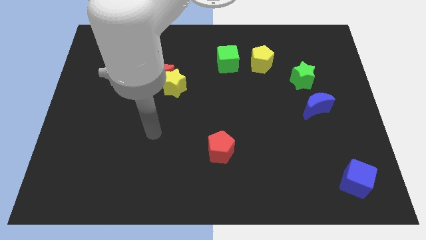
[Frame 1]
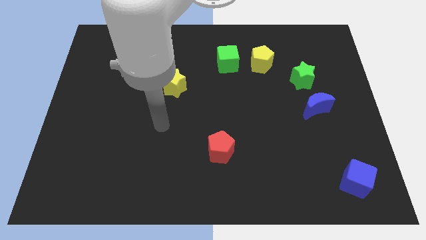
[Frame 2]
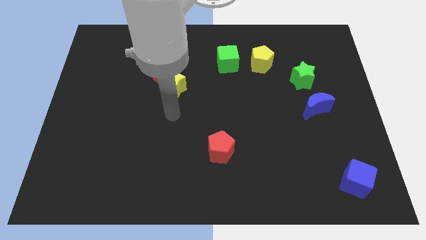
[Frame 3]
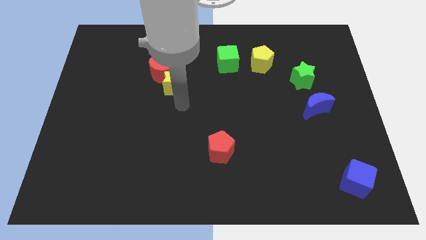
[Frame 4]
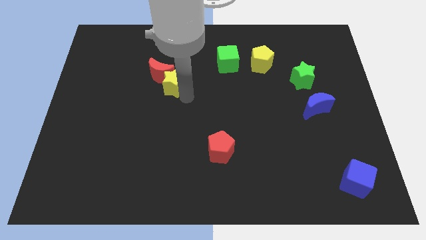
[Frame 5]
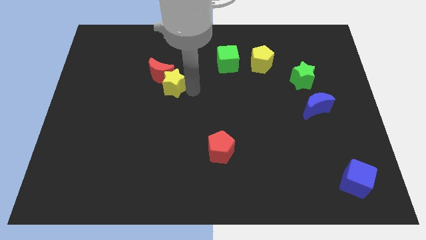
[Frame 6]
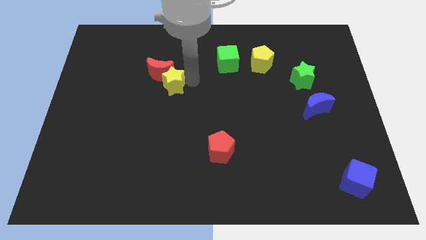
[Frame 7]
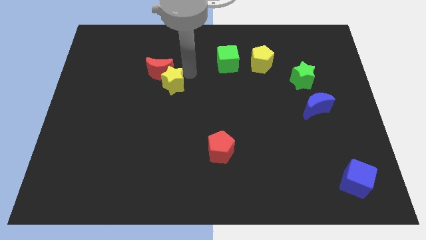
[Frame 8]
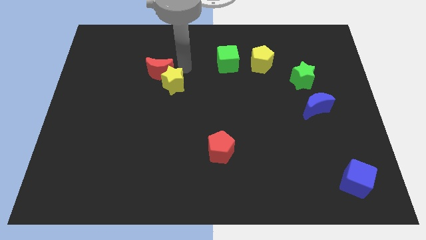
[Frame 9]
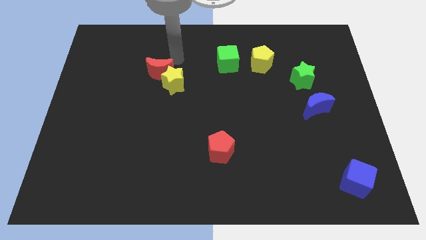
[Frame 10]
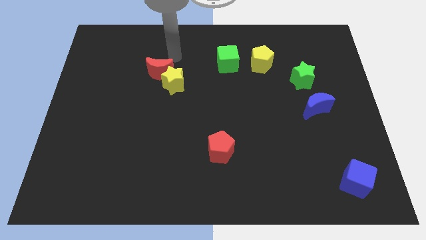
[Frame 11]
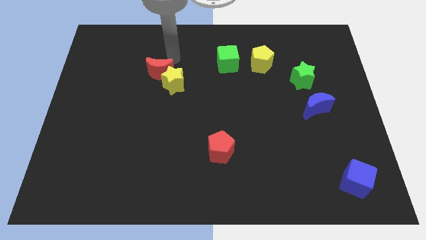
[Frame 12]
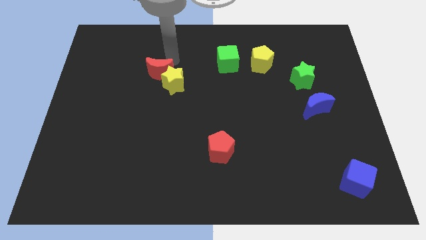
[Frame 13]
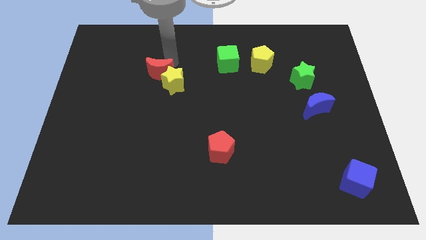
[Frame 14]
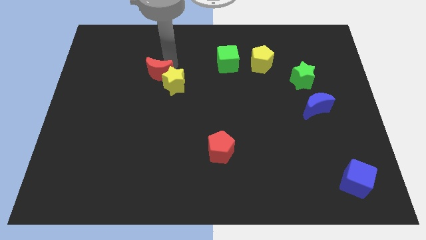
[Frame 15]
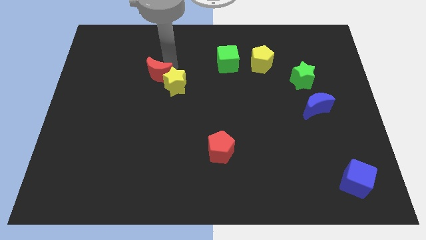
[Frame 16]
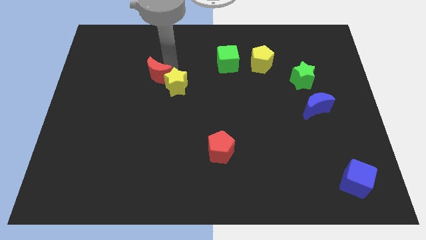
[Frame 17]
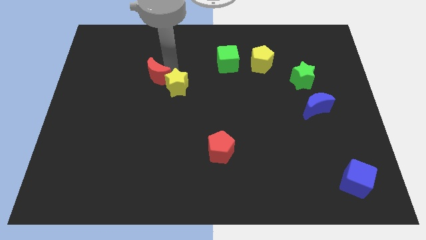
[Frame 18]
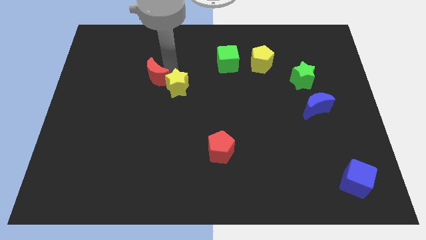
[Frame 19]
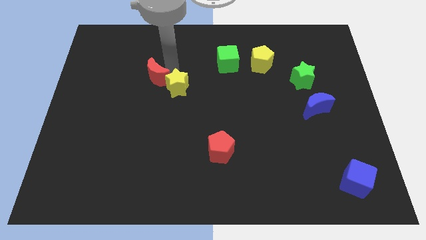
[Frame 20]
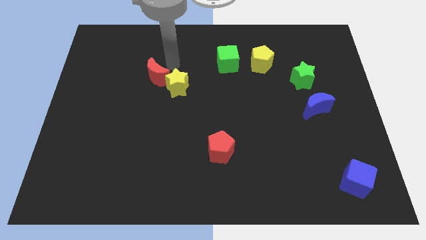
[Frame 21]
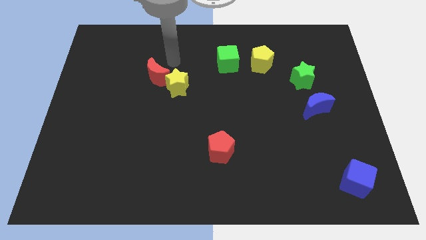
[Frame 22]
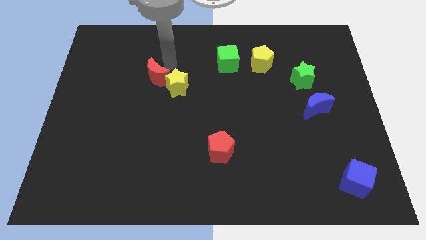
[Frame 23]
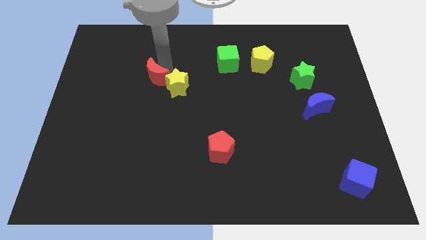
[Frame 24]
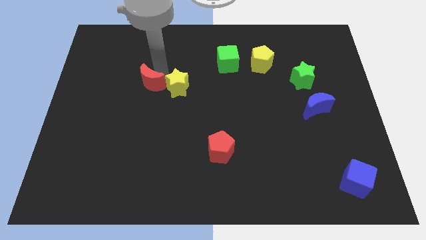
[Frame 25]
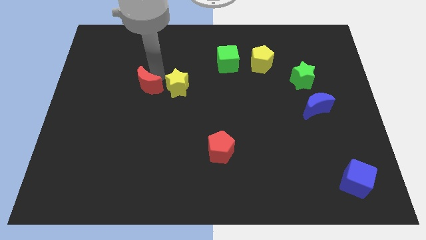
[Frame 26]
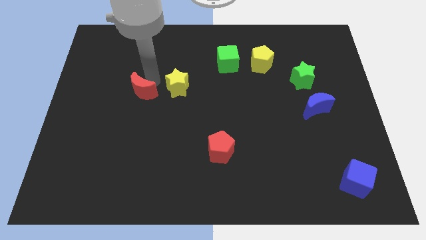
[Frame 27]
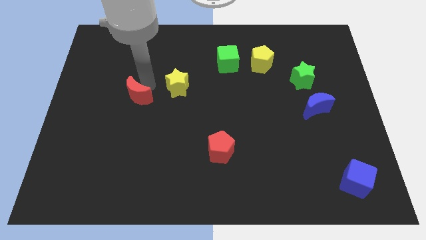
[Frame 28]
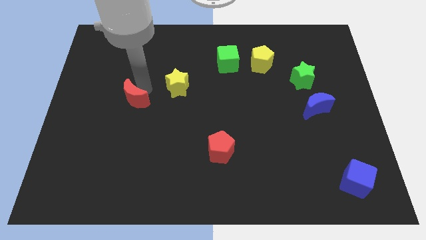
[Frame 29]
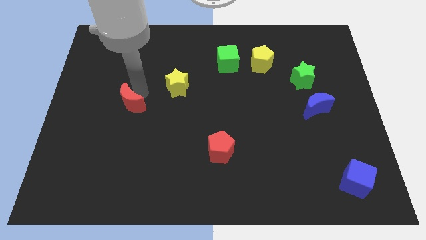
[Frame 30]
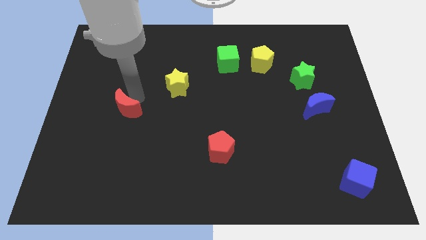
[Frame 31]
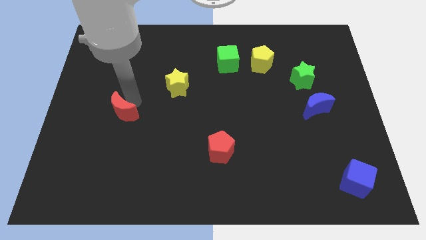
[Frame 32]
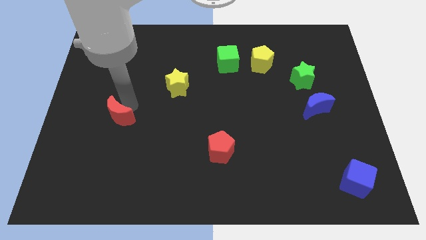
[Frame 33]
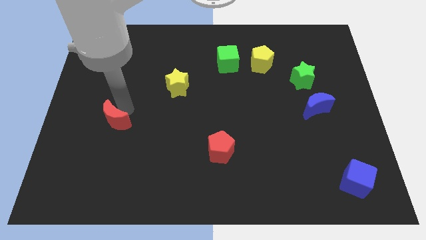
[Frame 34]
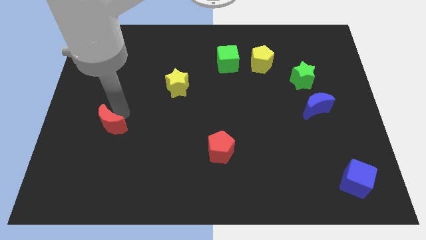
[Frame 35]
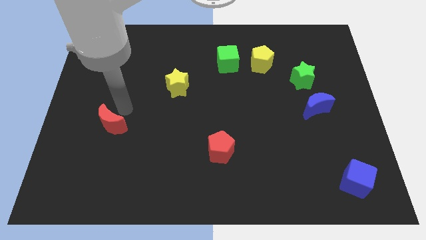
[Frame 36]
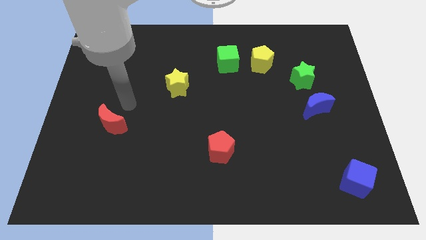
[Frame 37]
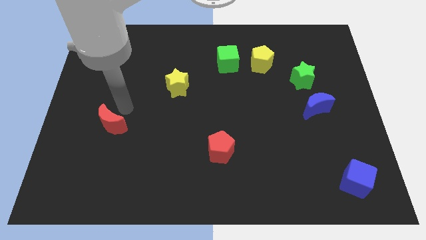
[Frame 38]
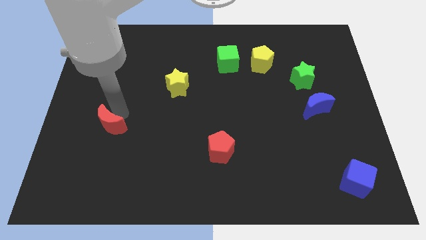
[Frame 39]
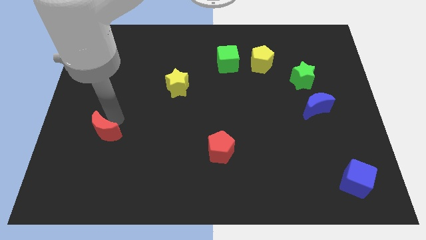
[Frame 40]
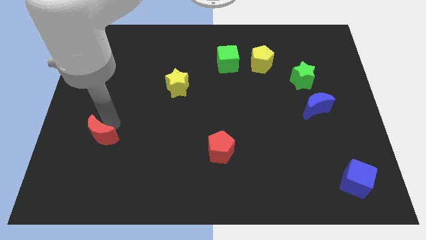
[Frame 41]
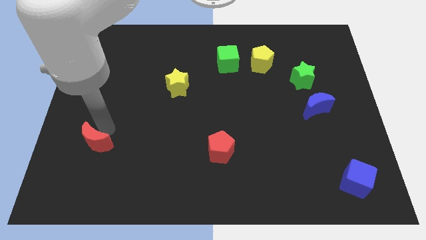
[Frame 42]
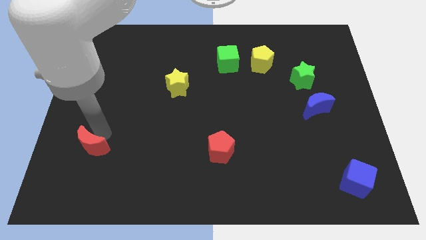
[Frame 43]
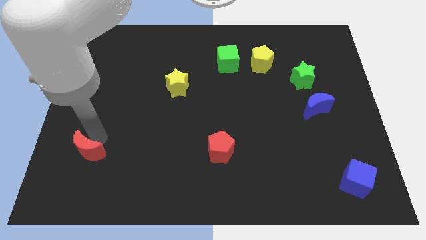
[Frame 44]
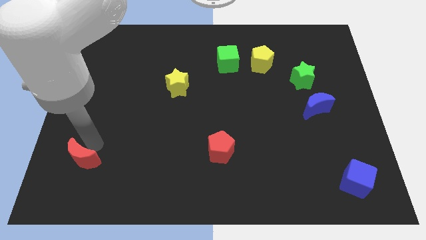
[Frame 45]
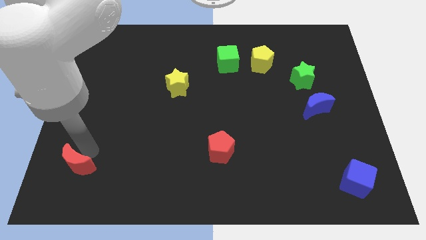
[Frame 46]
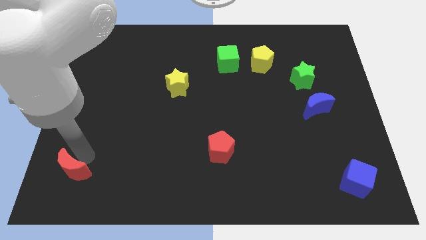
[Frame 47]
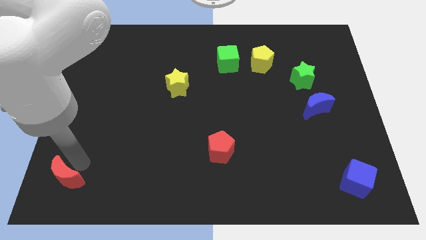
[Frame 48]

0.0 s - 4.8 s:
put the red moon to the bottom left

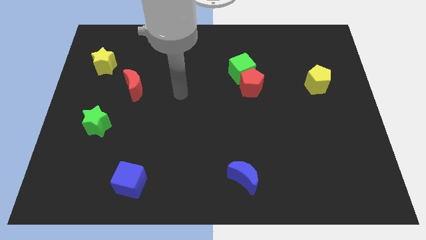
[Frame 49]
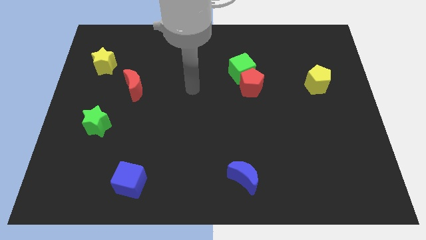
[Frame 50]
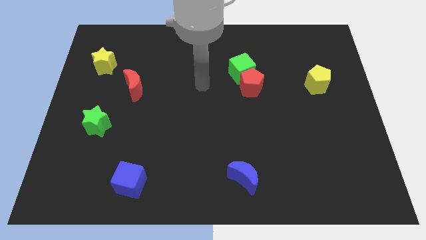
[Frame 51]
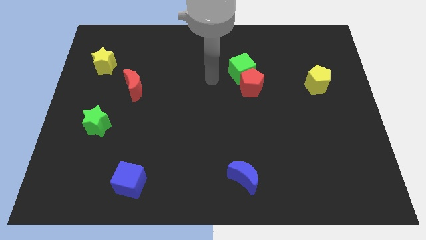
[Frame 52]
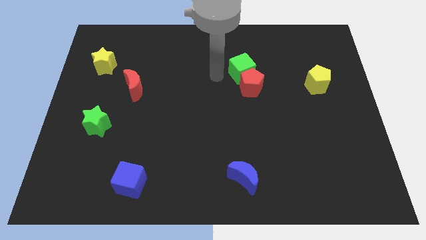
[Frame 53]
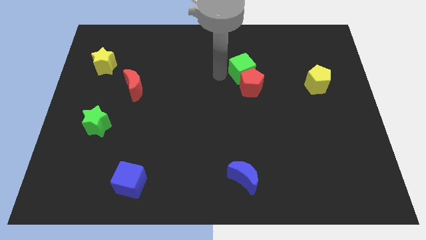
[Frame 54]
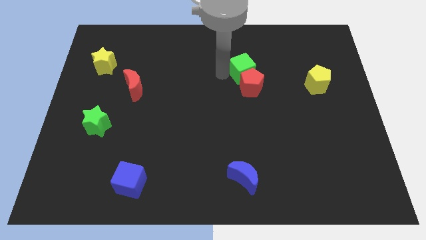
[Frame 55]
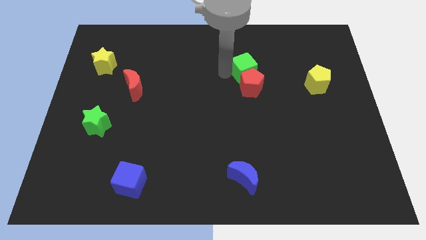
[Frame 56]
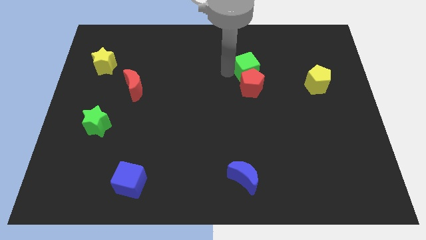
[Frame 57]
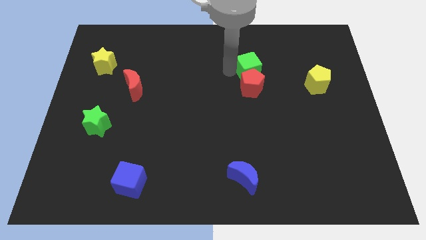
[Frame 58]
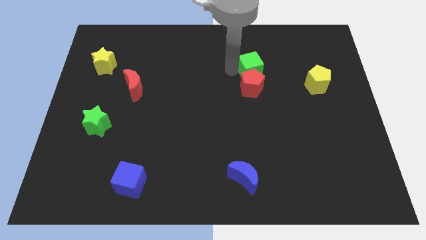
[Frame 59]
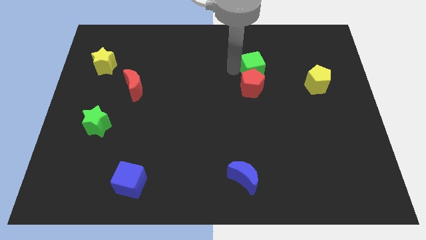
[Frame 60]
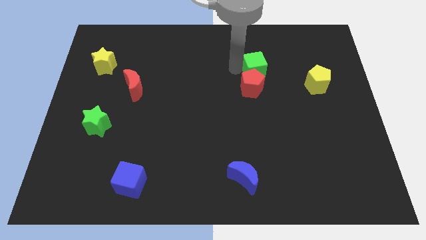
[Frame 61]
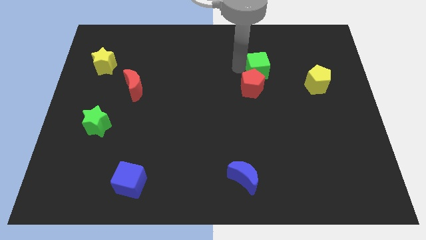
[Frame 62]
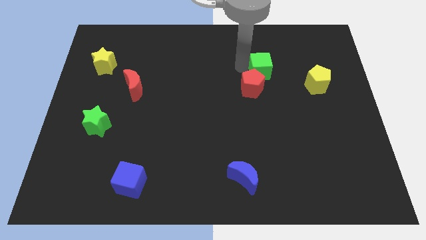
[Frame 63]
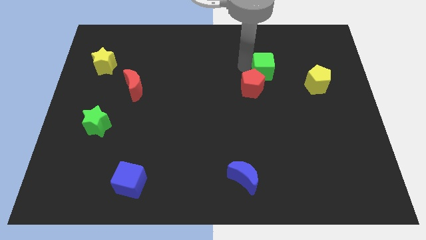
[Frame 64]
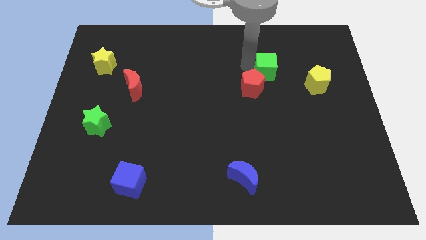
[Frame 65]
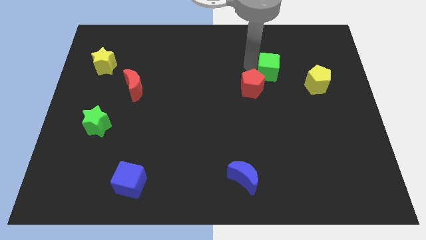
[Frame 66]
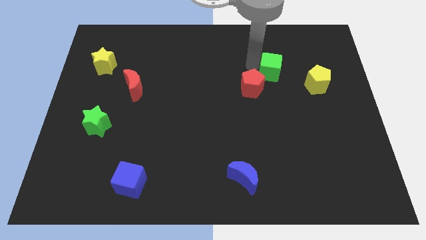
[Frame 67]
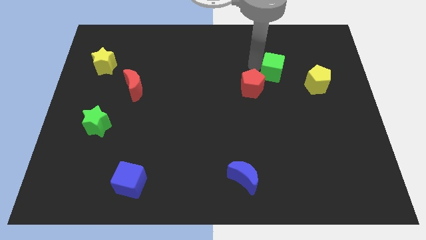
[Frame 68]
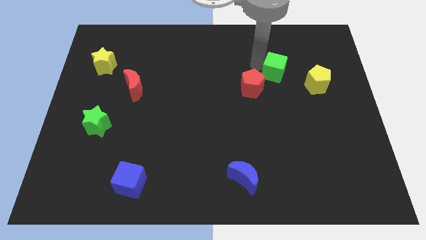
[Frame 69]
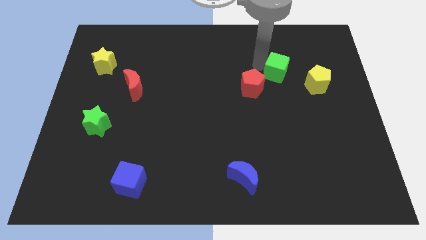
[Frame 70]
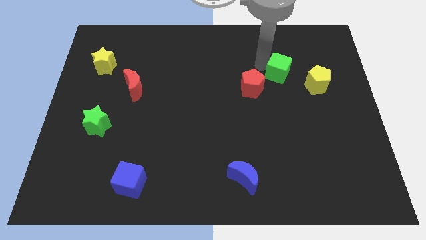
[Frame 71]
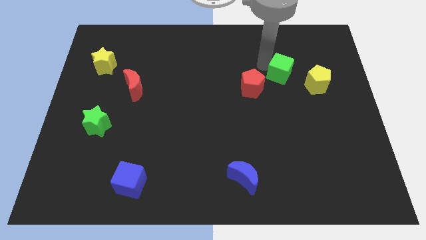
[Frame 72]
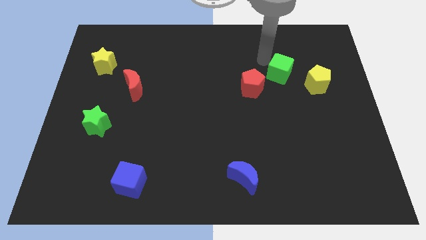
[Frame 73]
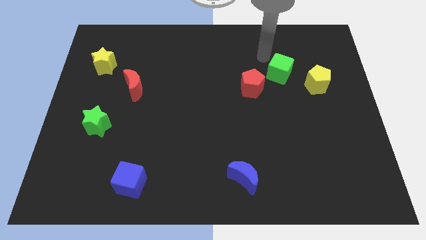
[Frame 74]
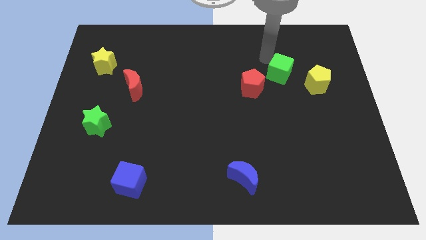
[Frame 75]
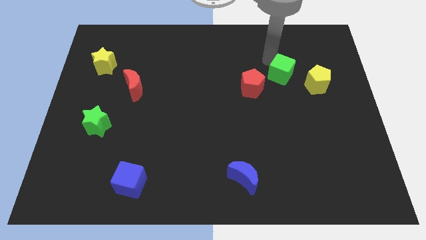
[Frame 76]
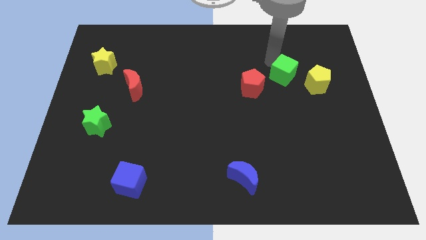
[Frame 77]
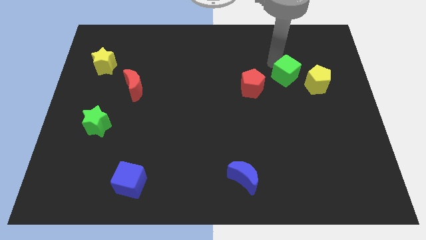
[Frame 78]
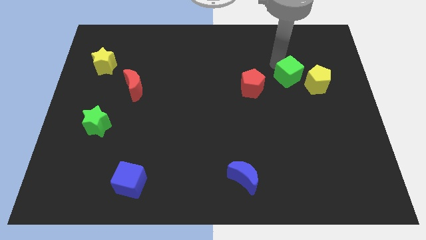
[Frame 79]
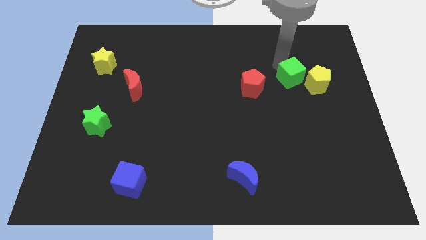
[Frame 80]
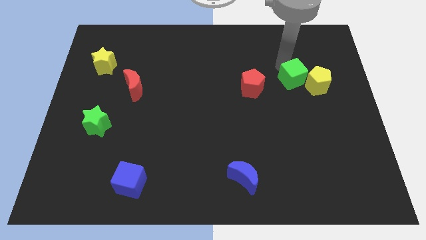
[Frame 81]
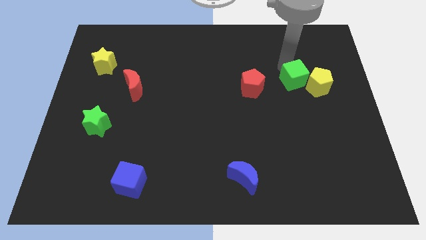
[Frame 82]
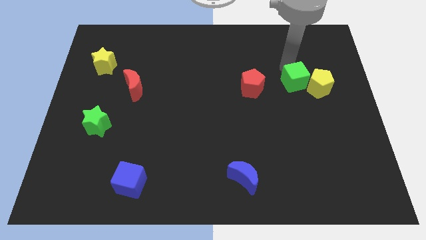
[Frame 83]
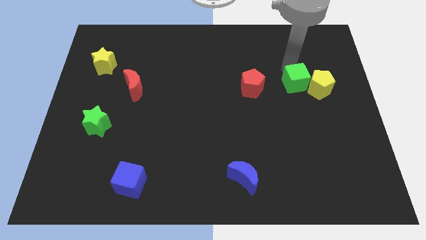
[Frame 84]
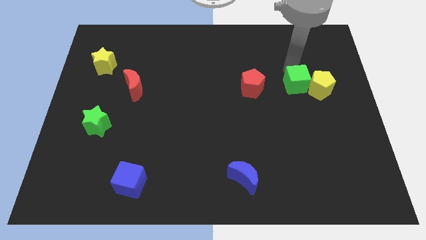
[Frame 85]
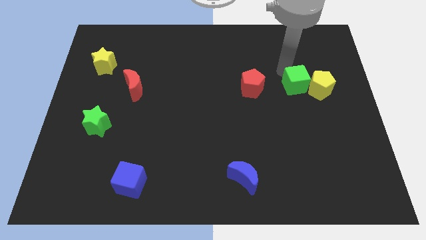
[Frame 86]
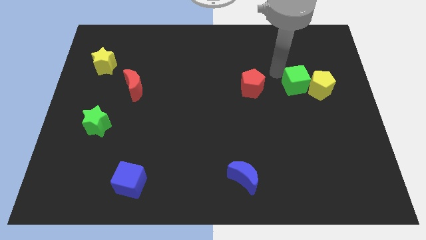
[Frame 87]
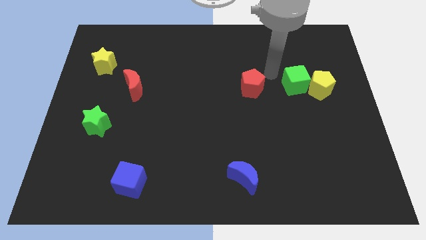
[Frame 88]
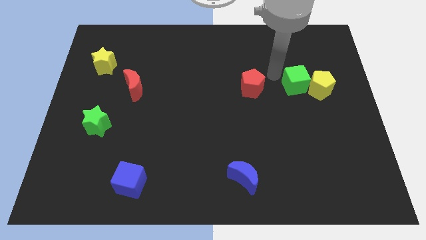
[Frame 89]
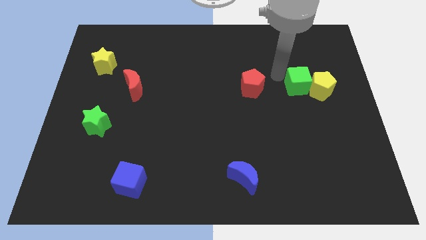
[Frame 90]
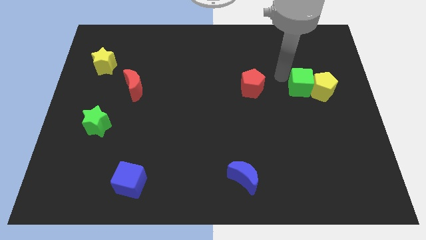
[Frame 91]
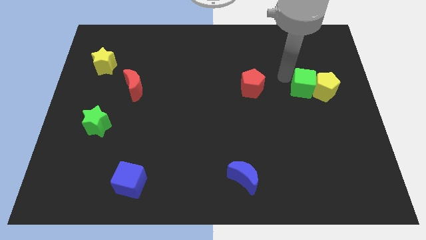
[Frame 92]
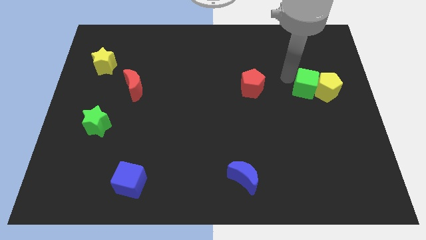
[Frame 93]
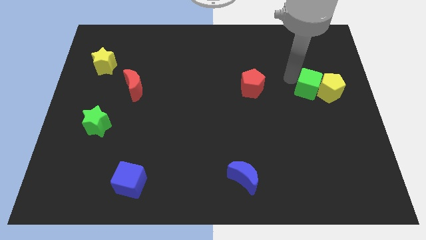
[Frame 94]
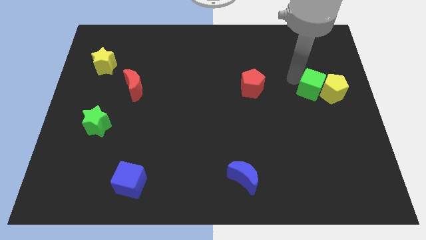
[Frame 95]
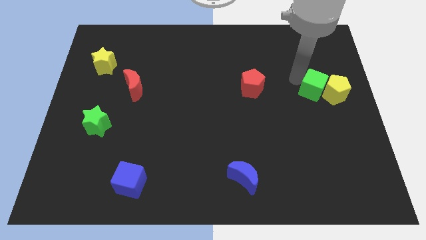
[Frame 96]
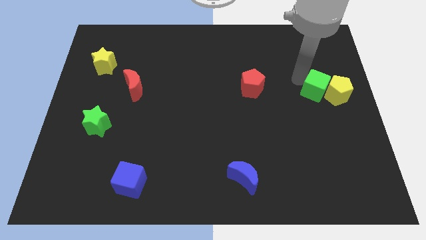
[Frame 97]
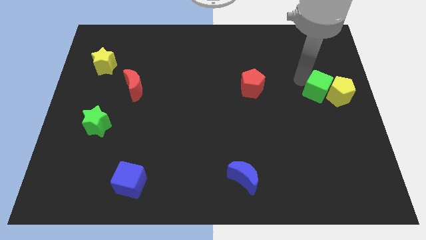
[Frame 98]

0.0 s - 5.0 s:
move the green cube to the center right
